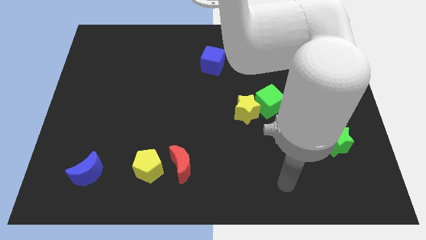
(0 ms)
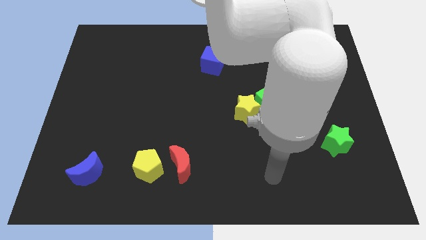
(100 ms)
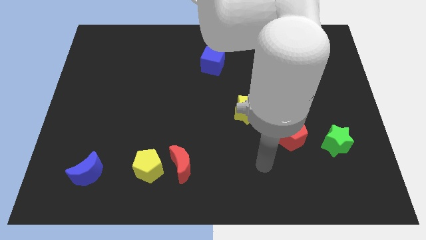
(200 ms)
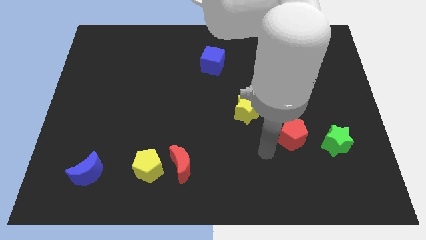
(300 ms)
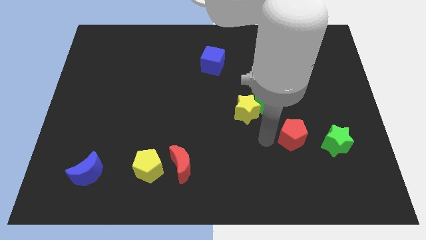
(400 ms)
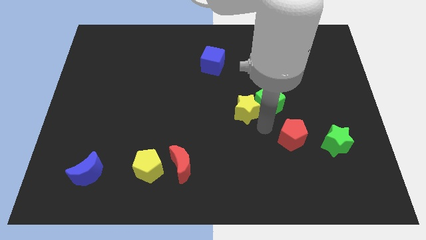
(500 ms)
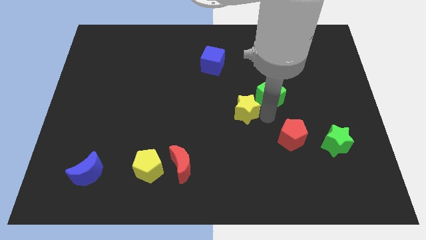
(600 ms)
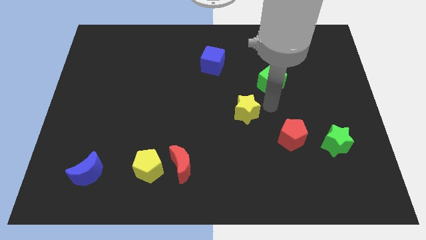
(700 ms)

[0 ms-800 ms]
move the yellow star away from the green cube

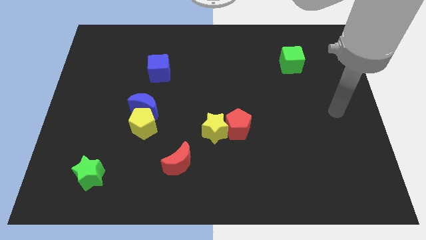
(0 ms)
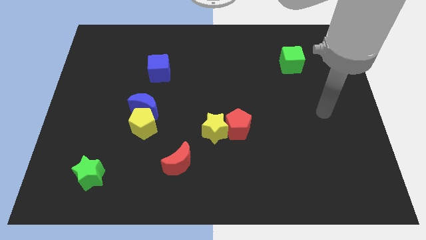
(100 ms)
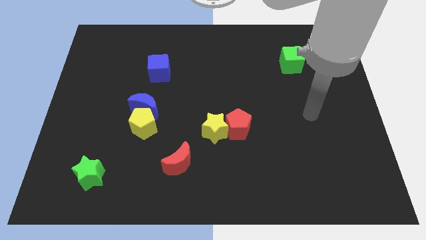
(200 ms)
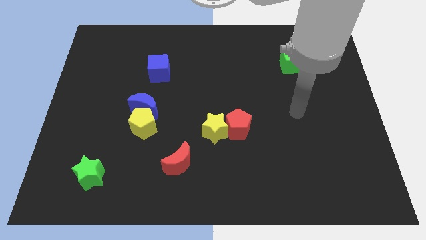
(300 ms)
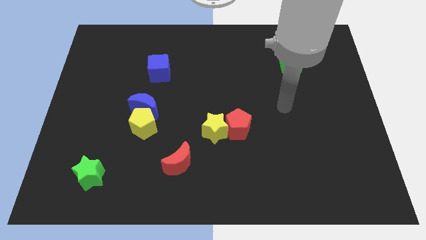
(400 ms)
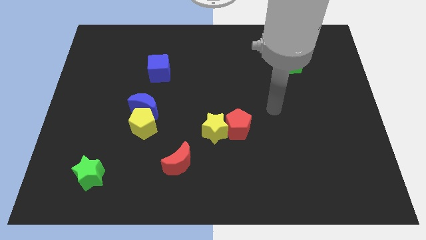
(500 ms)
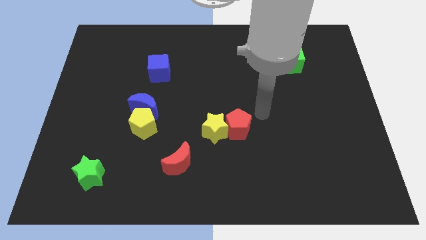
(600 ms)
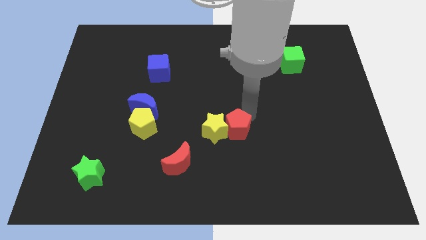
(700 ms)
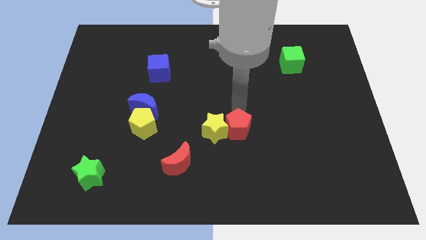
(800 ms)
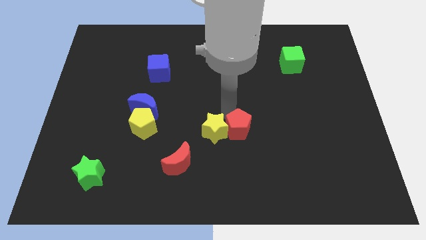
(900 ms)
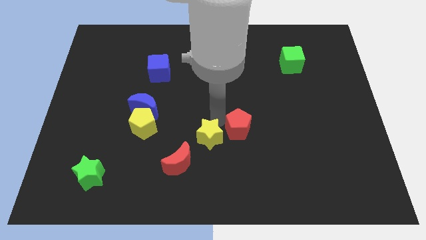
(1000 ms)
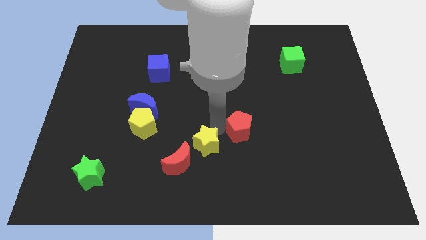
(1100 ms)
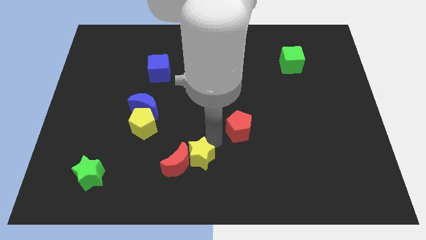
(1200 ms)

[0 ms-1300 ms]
separate the red pentagon from the yellow star

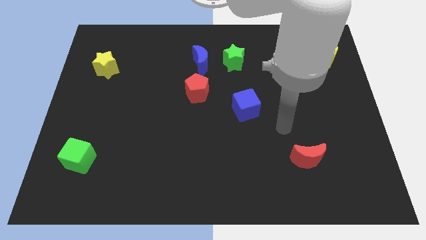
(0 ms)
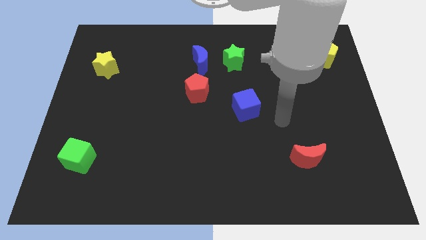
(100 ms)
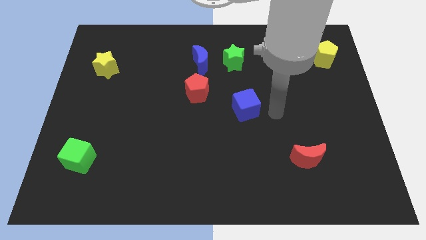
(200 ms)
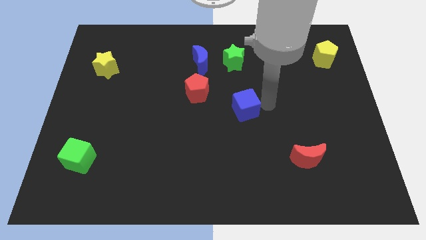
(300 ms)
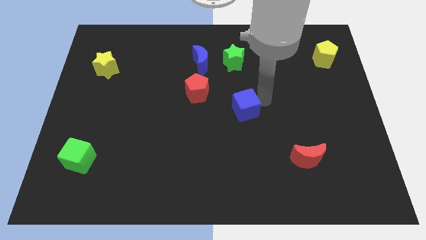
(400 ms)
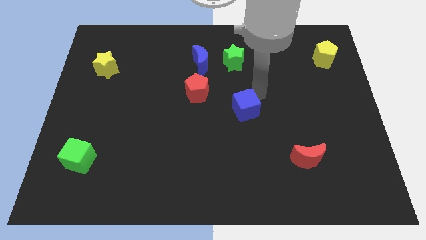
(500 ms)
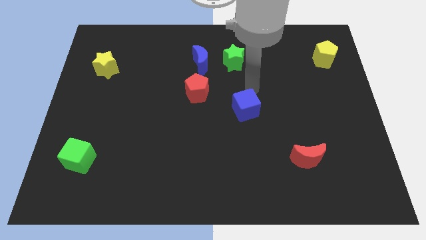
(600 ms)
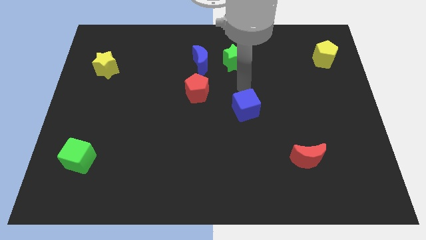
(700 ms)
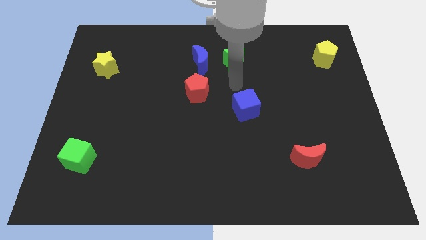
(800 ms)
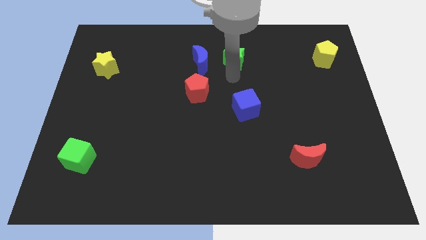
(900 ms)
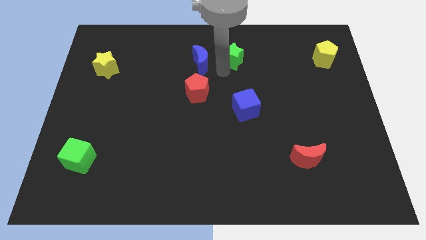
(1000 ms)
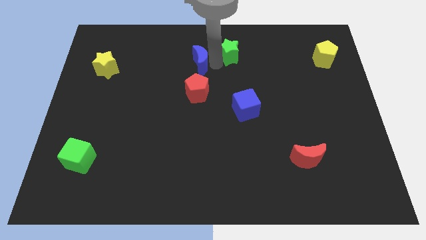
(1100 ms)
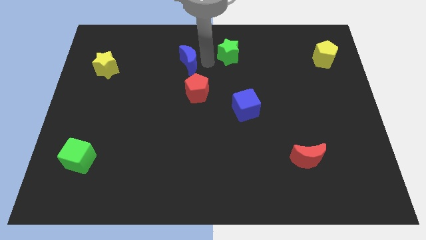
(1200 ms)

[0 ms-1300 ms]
separate the green star from the blue moon

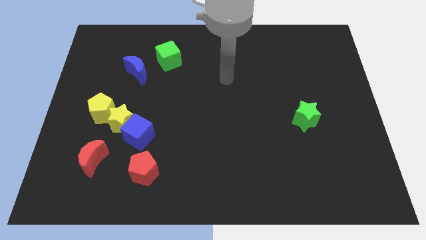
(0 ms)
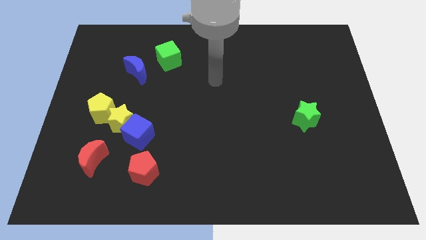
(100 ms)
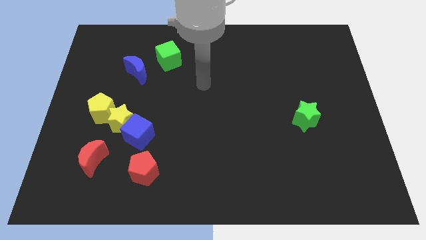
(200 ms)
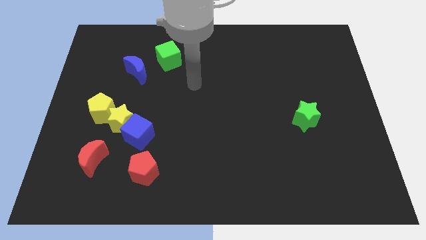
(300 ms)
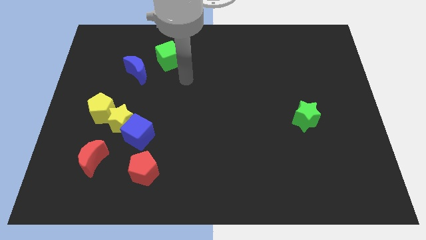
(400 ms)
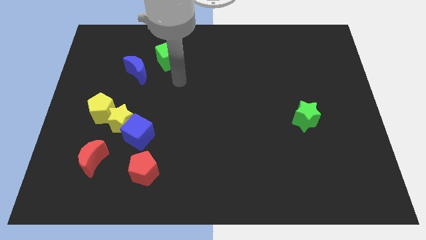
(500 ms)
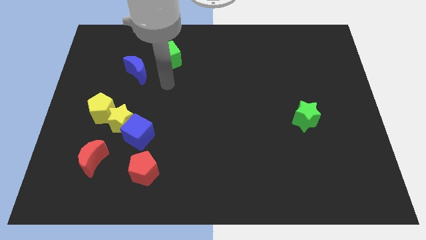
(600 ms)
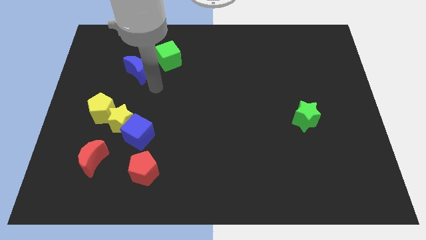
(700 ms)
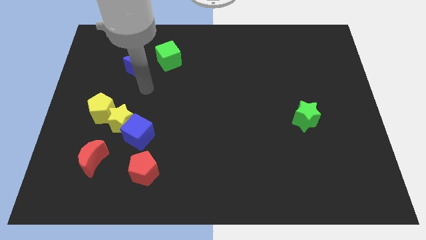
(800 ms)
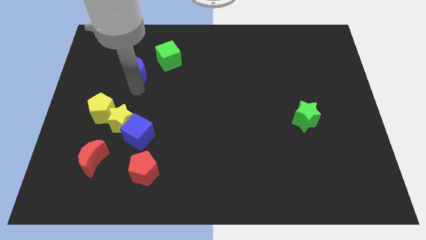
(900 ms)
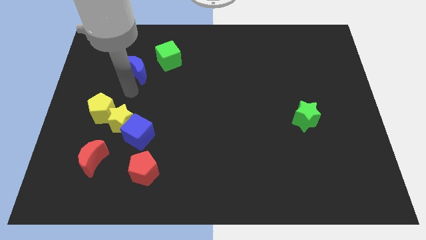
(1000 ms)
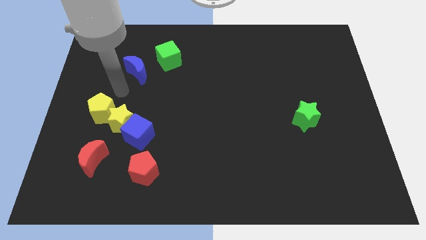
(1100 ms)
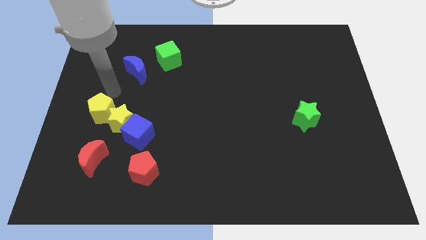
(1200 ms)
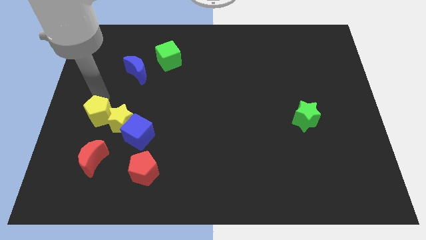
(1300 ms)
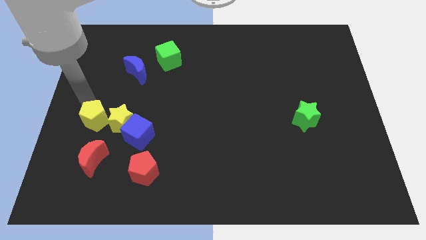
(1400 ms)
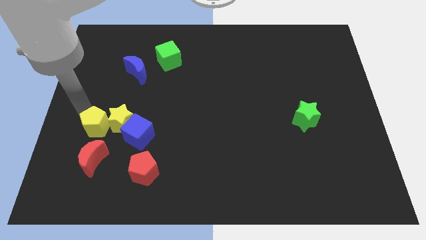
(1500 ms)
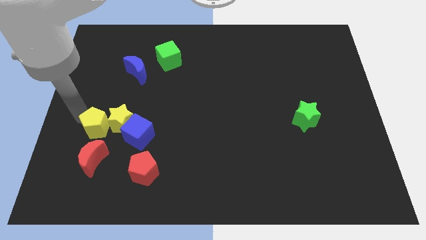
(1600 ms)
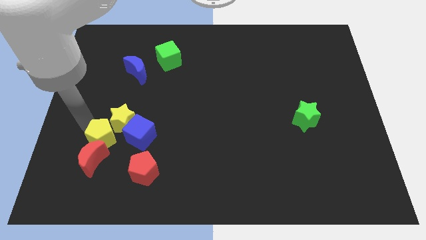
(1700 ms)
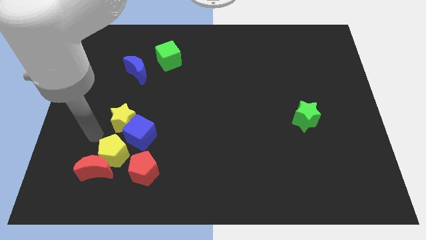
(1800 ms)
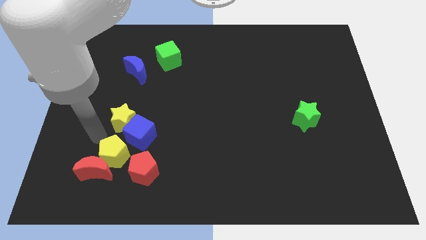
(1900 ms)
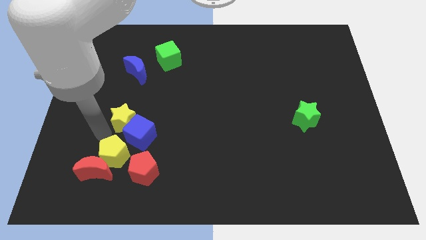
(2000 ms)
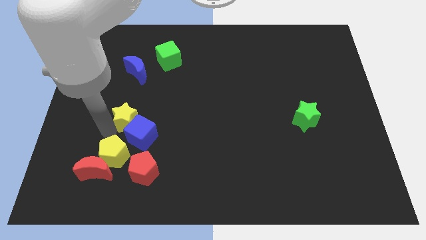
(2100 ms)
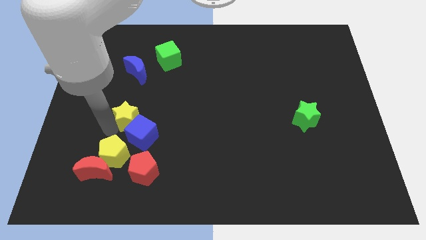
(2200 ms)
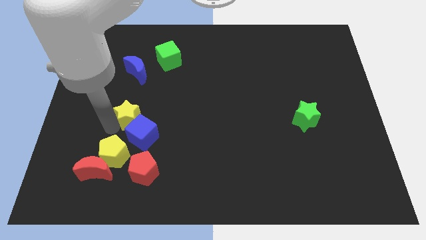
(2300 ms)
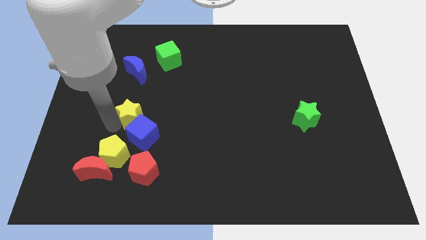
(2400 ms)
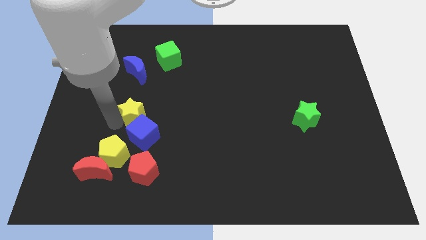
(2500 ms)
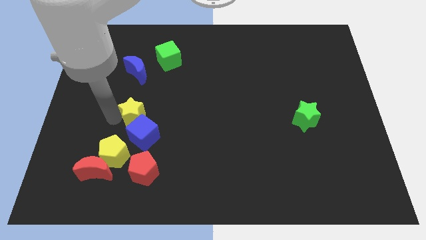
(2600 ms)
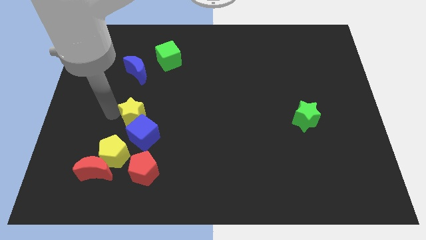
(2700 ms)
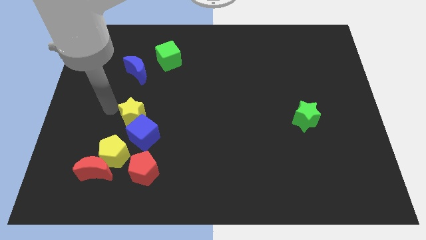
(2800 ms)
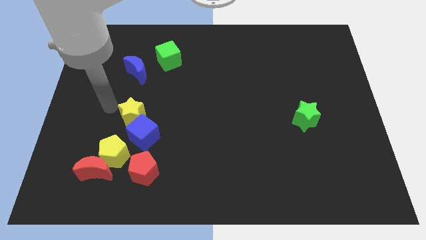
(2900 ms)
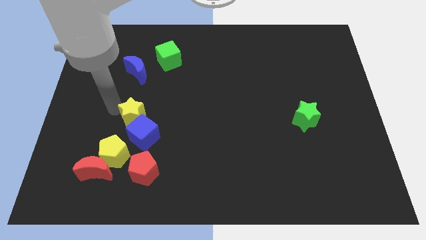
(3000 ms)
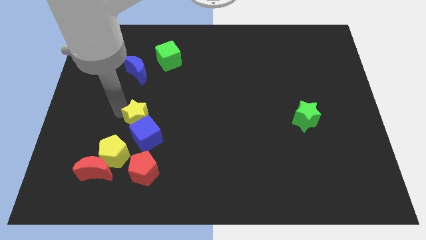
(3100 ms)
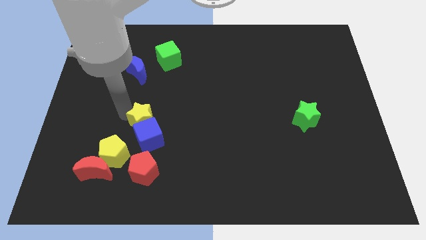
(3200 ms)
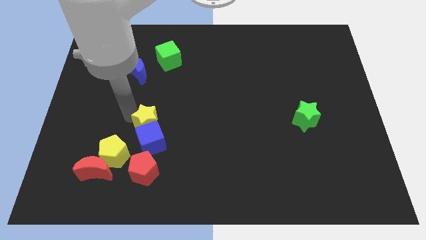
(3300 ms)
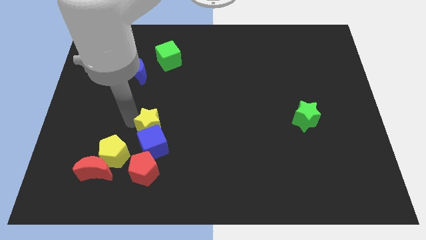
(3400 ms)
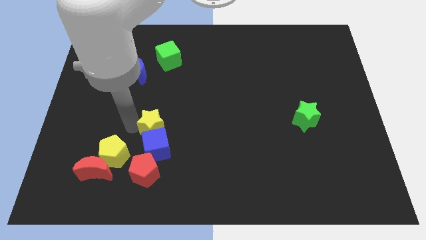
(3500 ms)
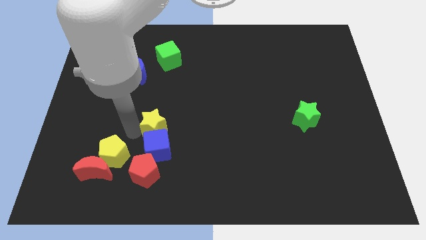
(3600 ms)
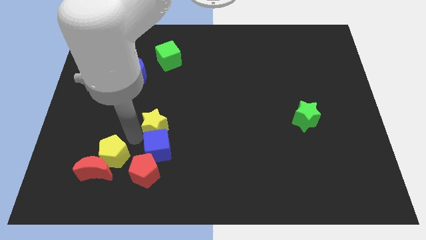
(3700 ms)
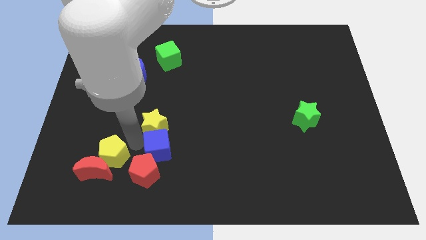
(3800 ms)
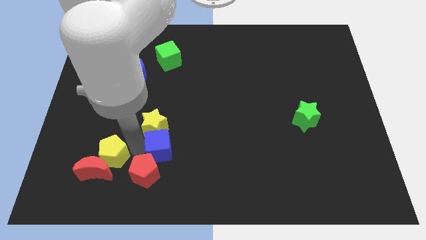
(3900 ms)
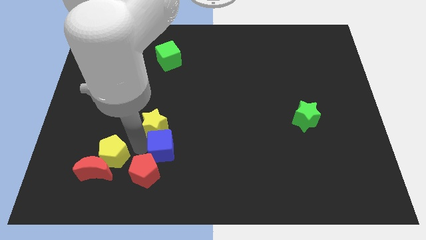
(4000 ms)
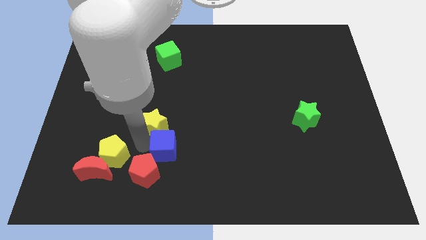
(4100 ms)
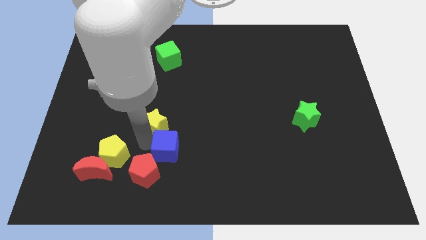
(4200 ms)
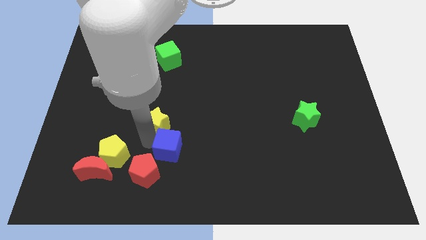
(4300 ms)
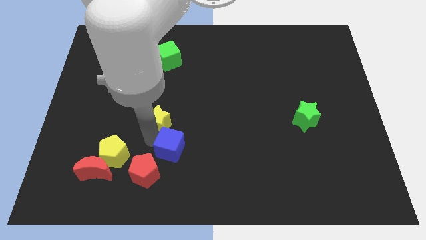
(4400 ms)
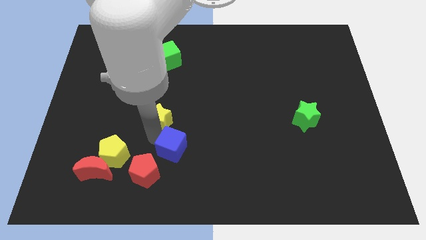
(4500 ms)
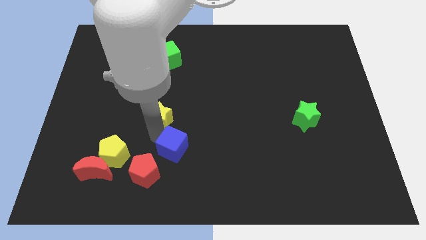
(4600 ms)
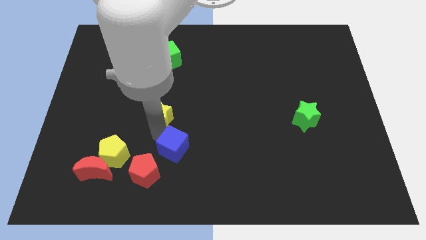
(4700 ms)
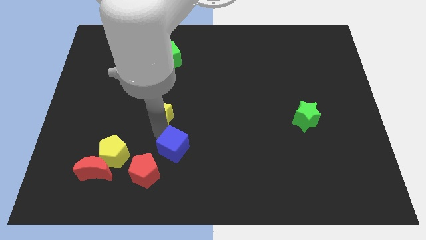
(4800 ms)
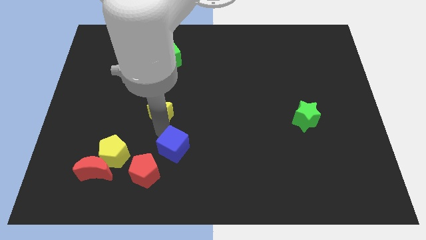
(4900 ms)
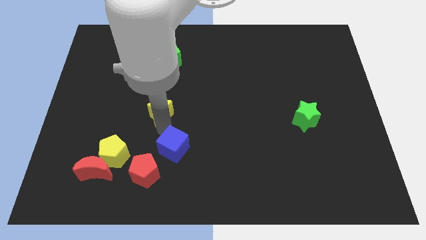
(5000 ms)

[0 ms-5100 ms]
pull the yellow star apart from the blue cube and yellow pentagon

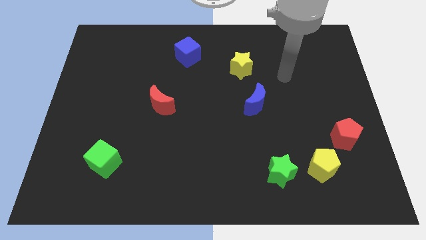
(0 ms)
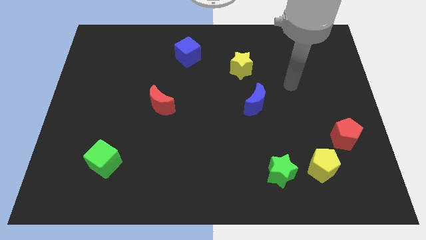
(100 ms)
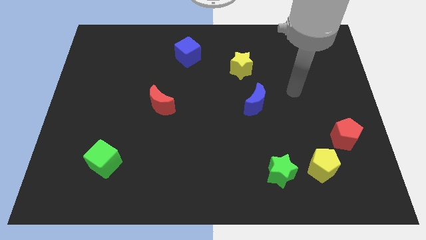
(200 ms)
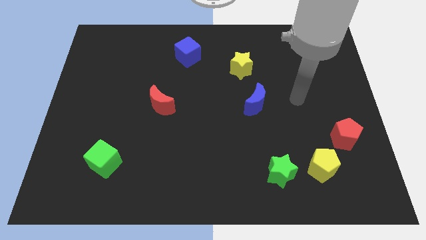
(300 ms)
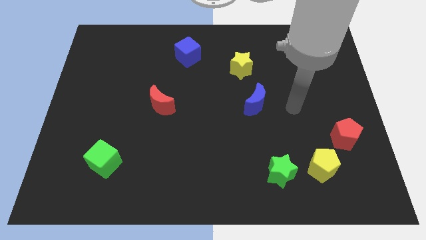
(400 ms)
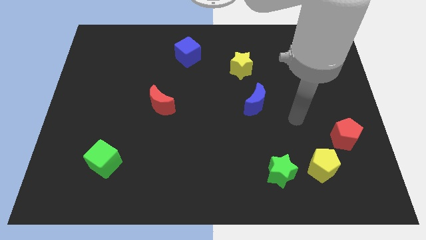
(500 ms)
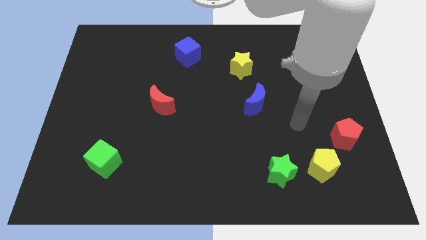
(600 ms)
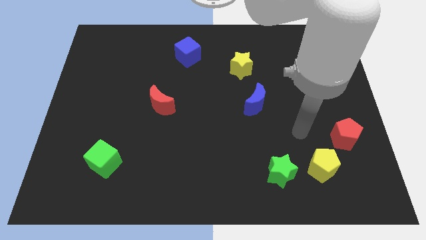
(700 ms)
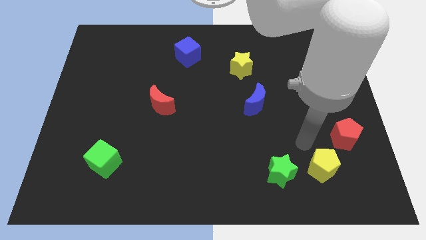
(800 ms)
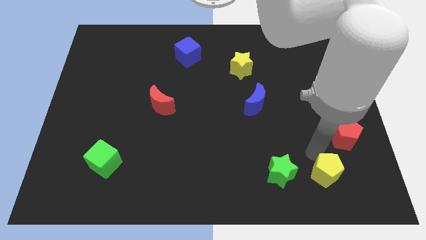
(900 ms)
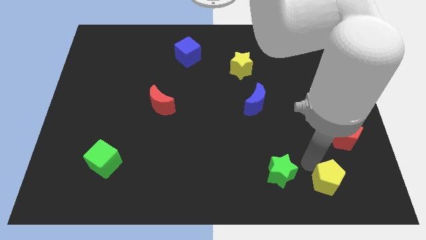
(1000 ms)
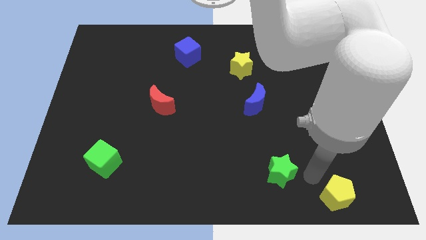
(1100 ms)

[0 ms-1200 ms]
pull the green star apart from the yellow pentagon
